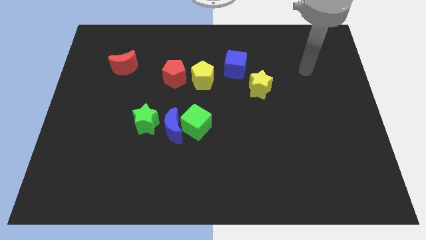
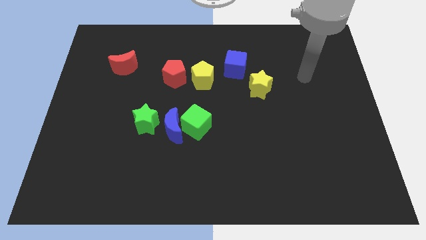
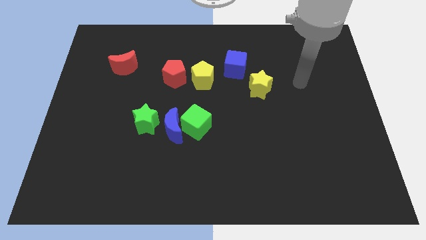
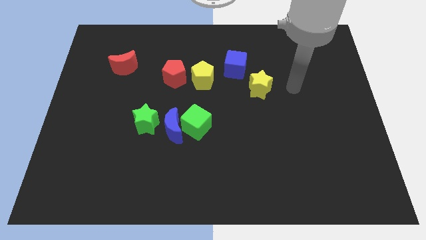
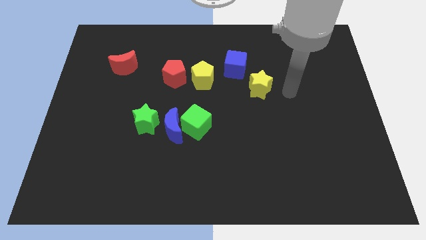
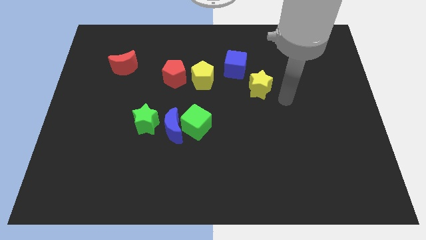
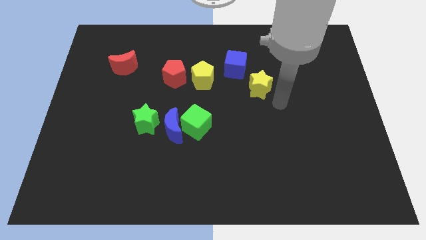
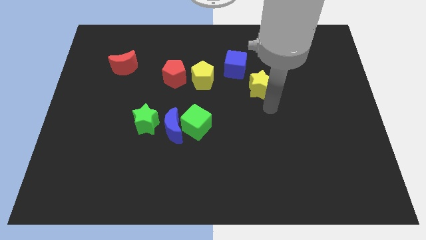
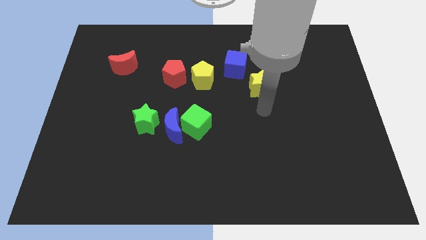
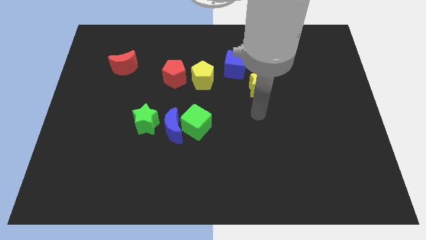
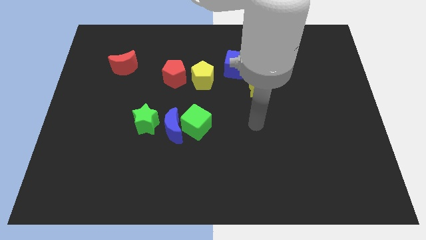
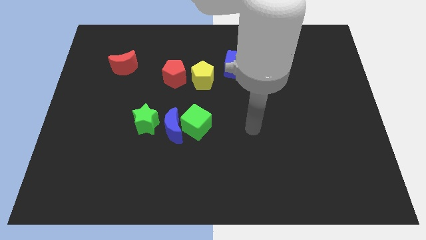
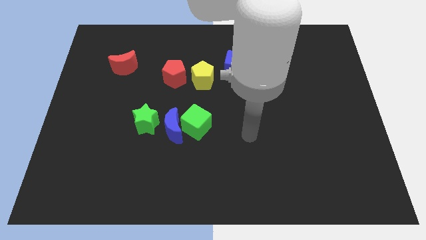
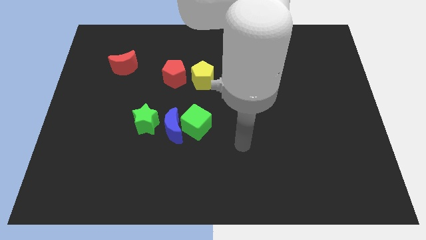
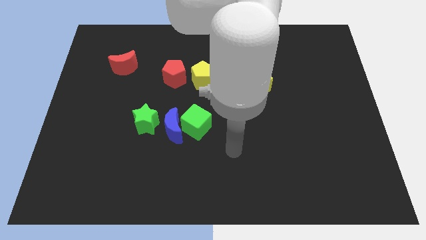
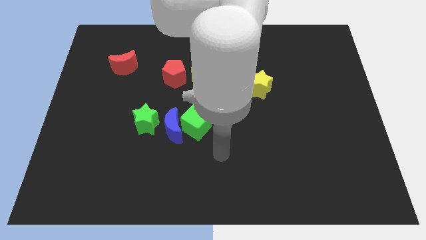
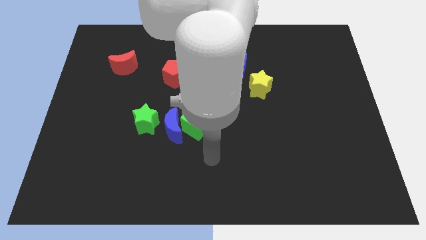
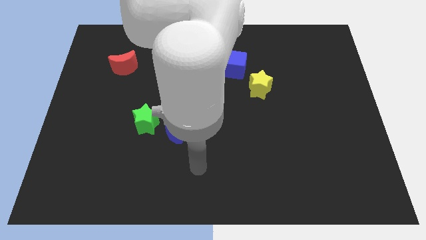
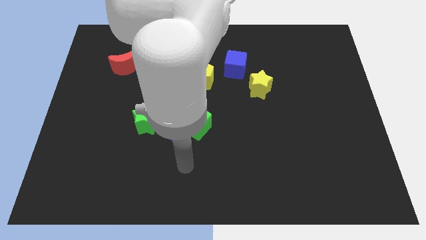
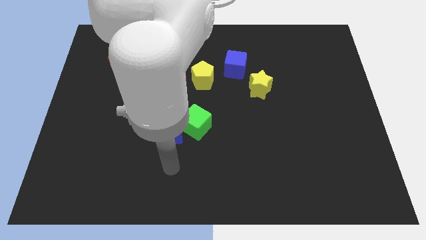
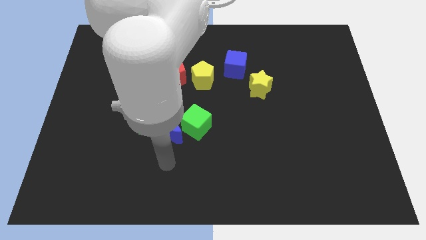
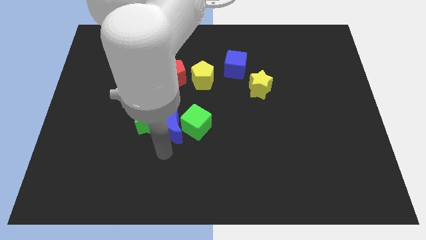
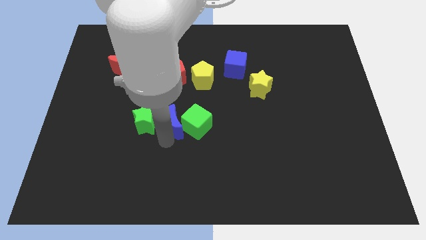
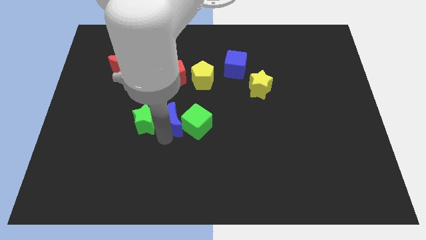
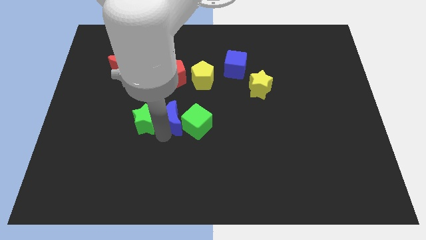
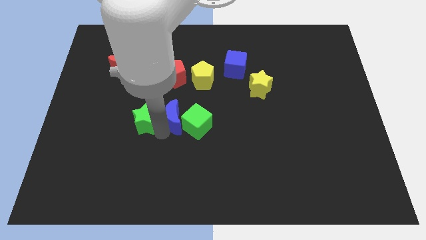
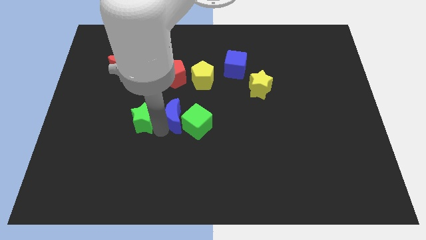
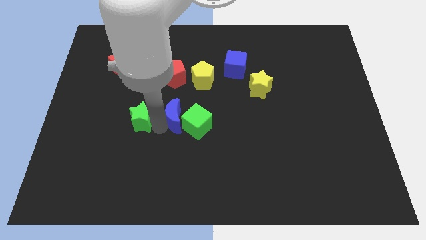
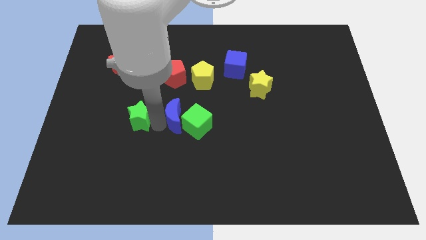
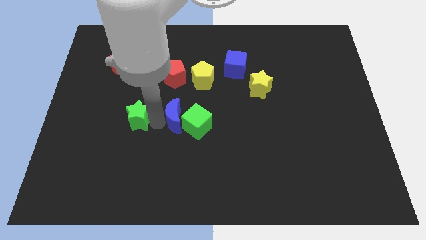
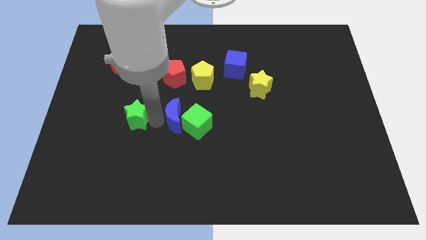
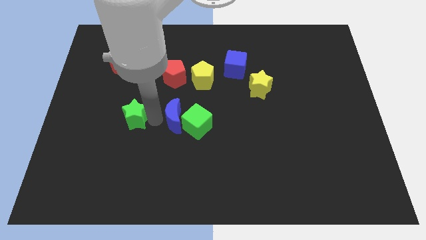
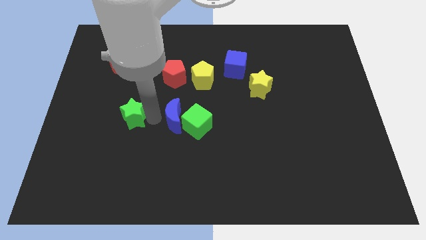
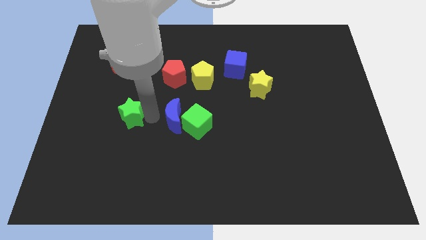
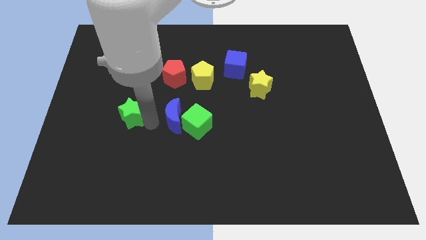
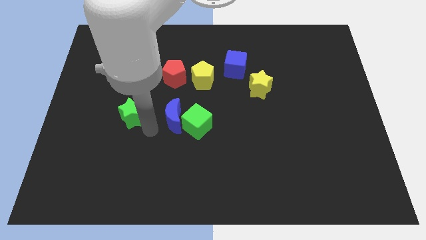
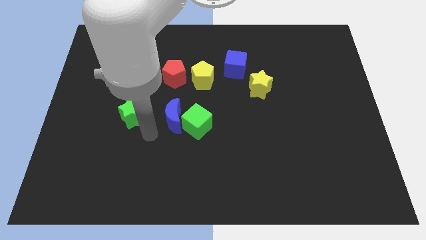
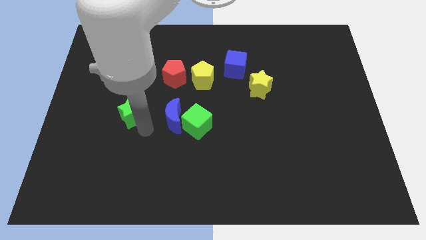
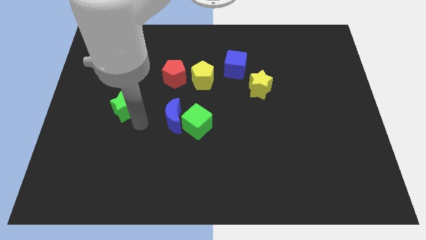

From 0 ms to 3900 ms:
push the green star a little upwards and then left

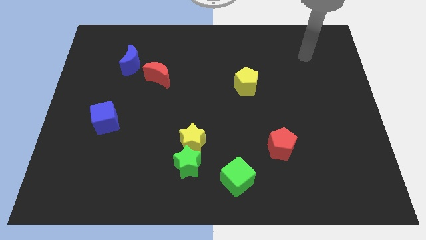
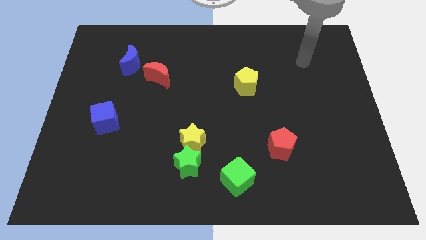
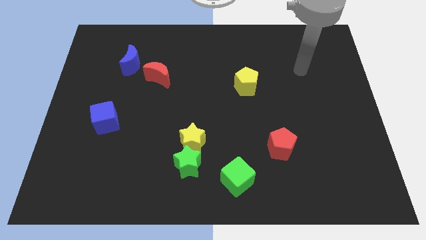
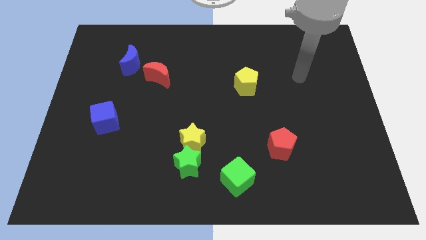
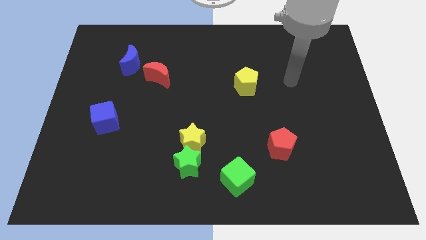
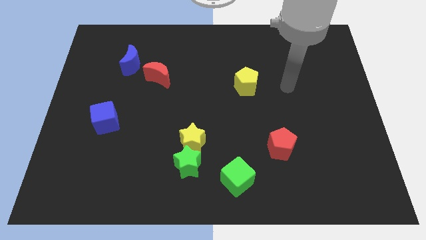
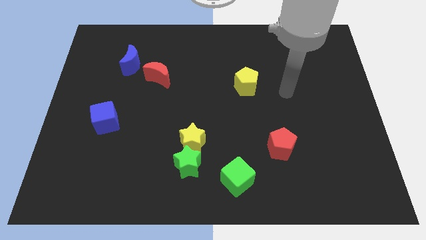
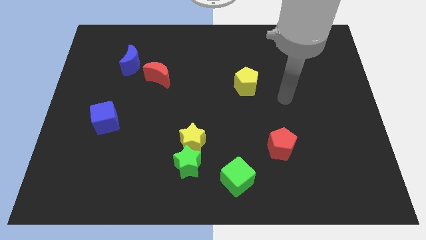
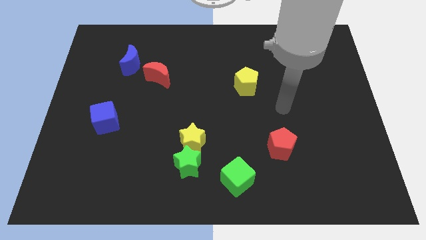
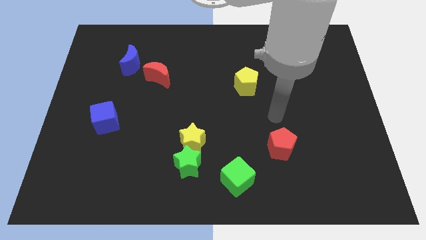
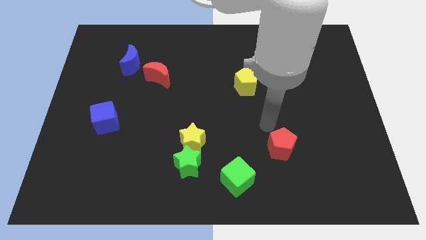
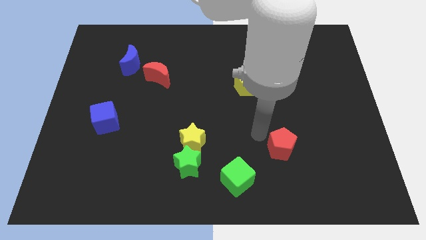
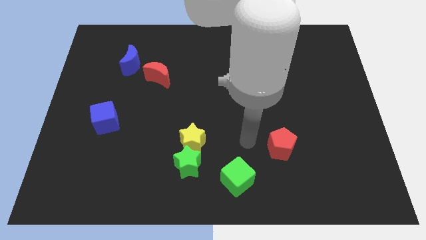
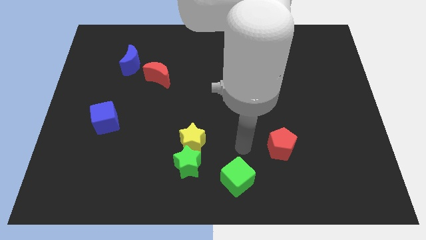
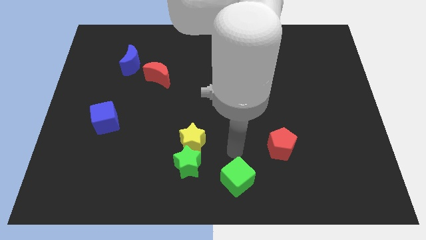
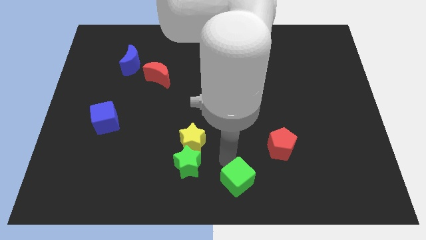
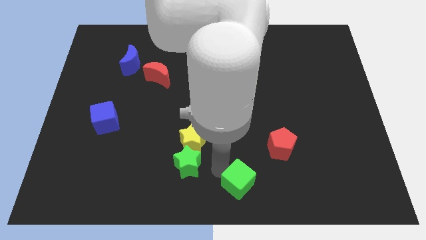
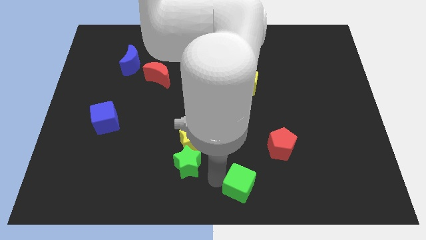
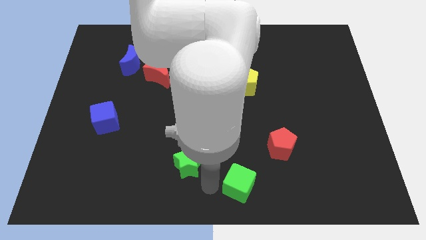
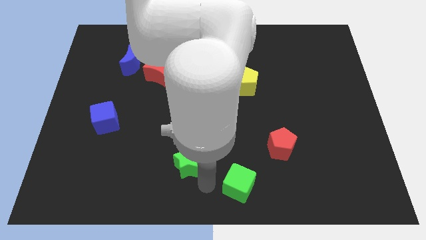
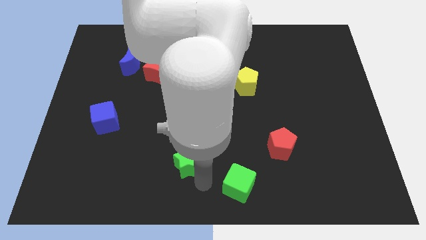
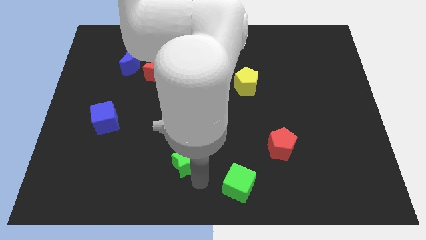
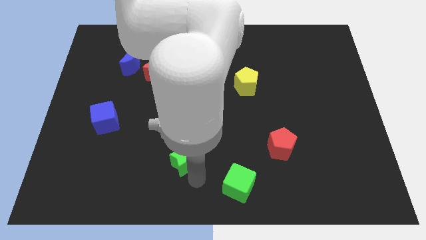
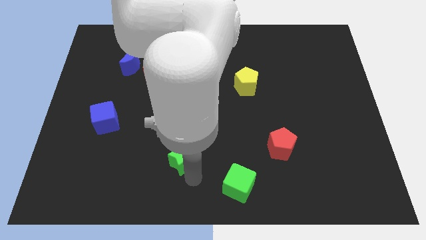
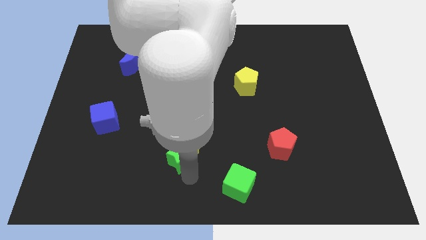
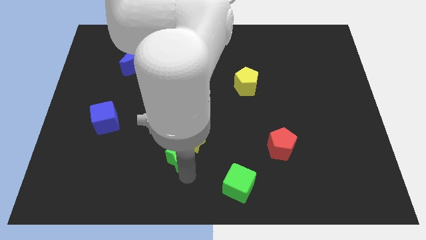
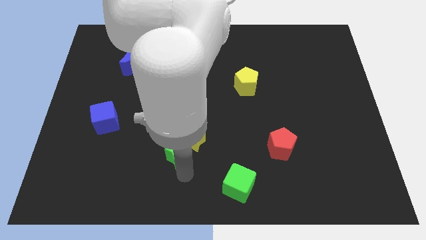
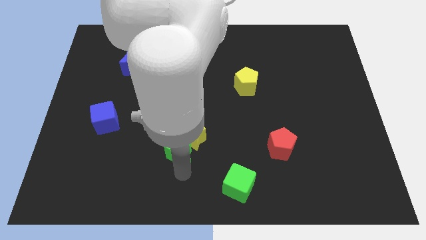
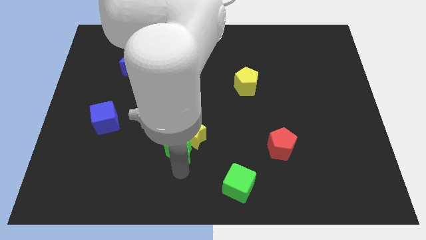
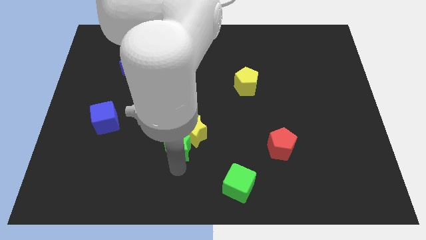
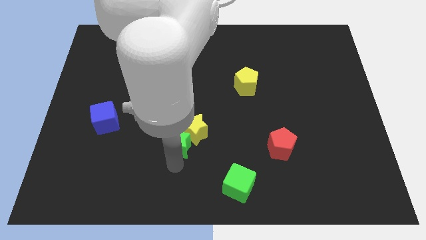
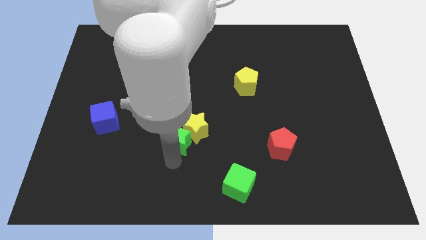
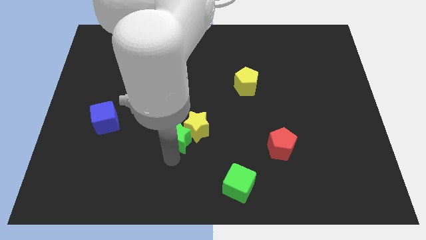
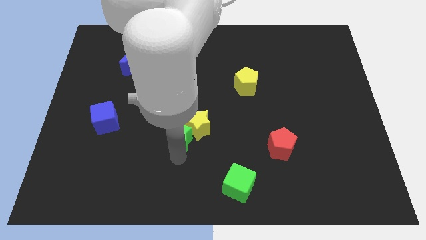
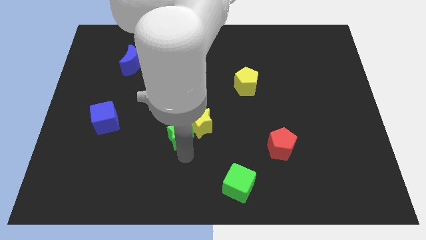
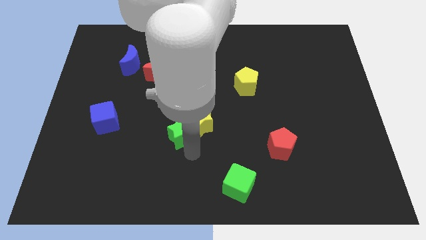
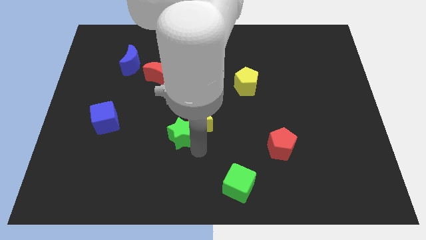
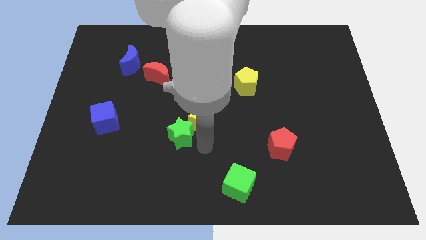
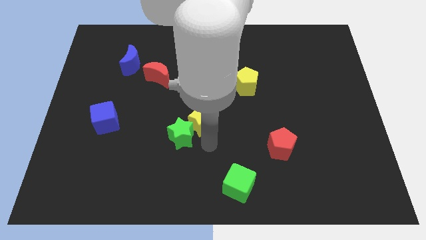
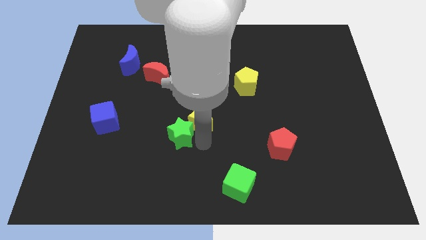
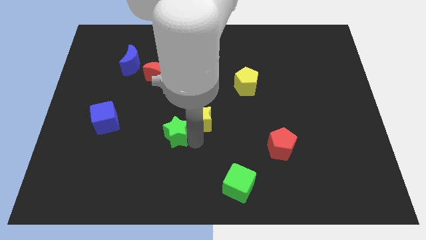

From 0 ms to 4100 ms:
push the green star slightly upwards and then to the left
